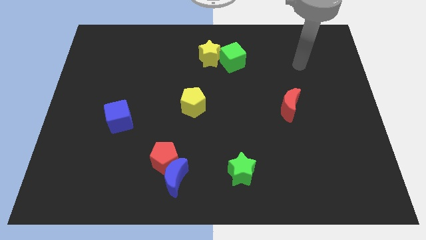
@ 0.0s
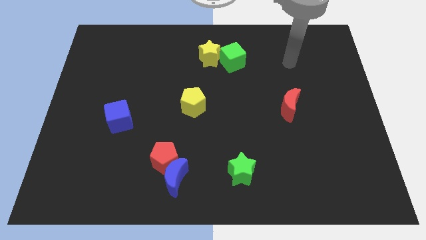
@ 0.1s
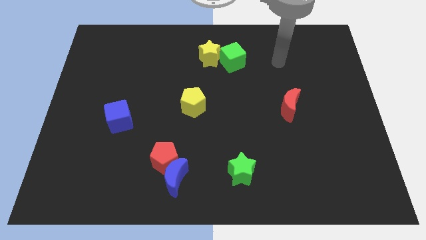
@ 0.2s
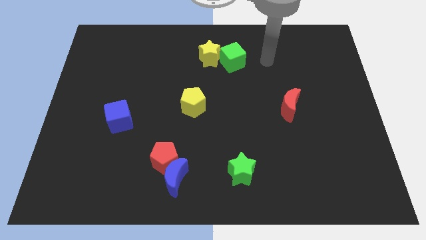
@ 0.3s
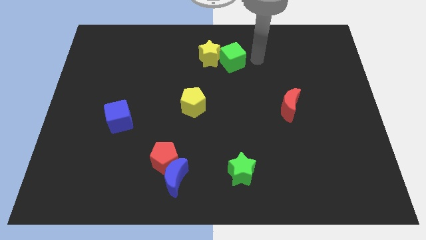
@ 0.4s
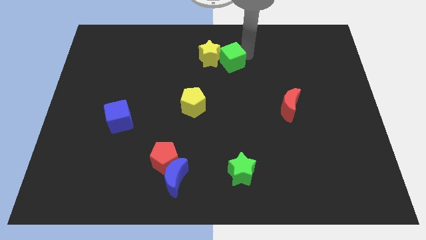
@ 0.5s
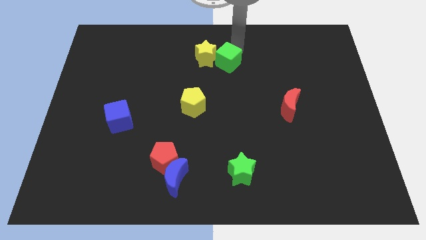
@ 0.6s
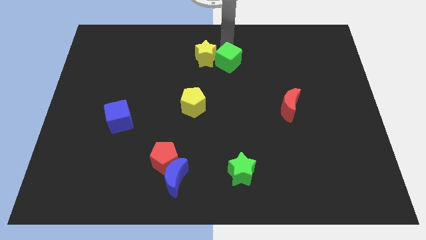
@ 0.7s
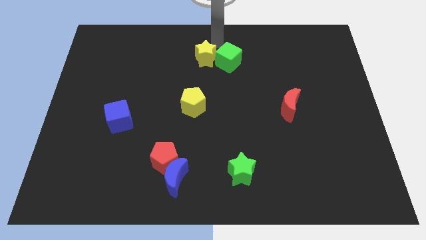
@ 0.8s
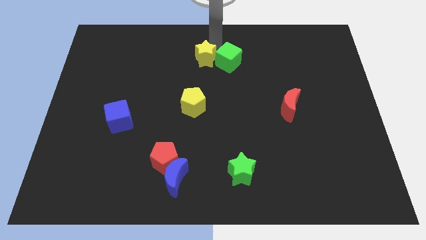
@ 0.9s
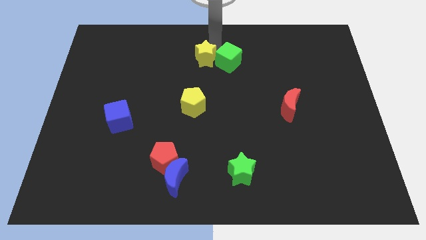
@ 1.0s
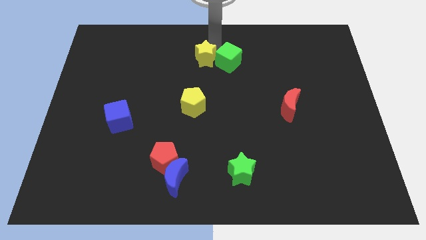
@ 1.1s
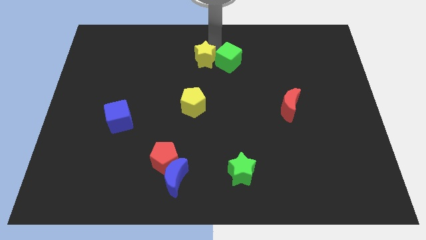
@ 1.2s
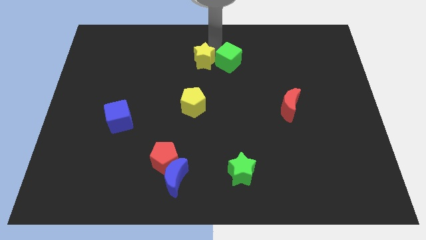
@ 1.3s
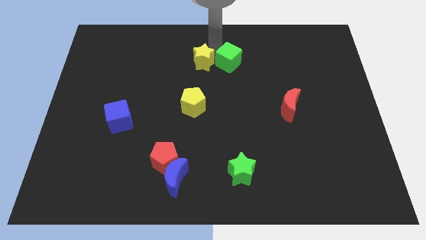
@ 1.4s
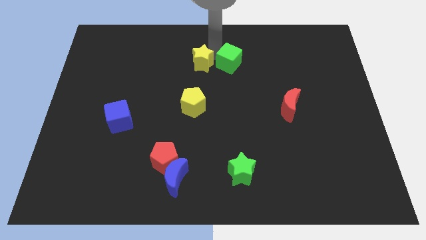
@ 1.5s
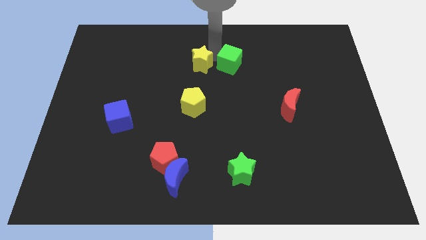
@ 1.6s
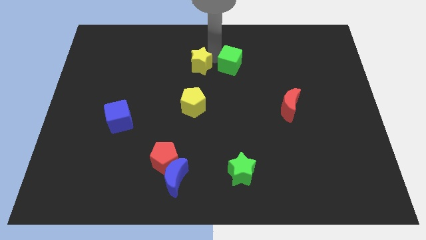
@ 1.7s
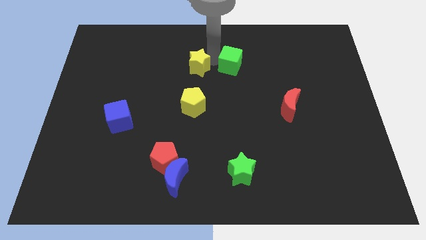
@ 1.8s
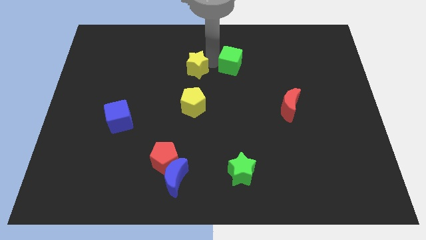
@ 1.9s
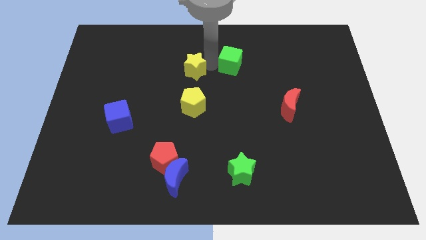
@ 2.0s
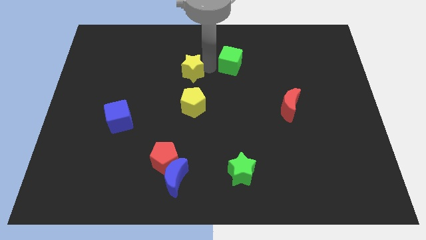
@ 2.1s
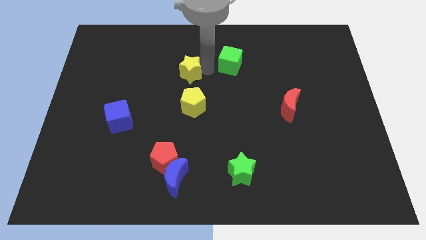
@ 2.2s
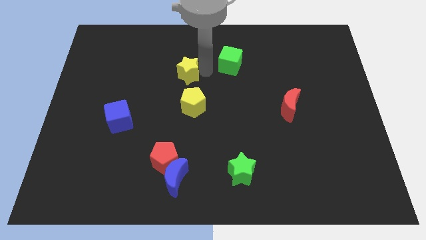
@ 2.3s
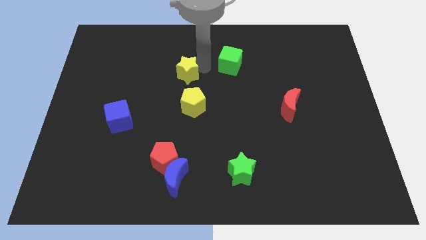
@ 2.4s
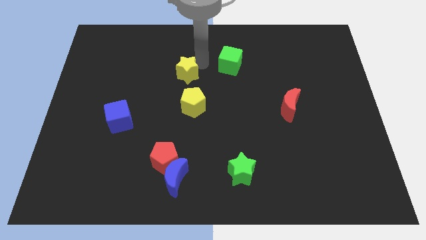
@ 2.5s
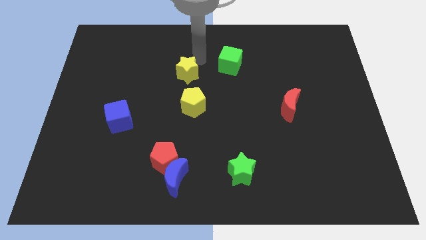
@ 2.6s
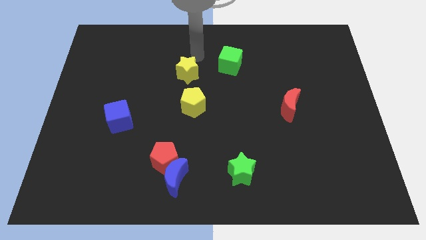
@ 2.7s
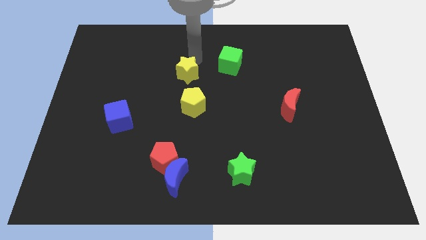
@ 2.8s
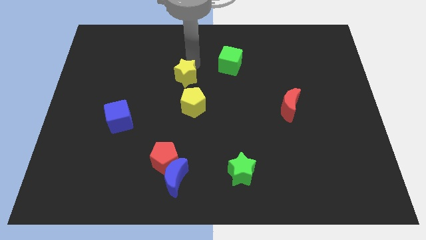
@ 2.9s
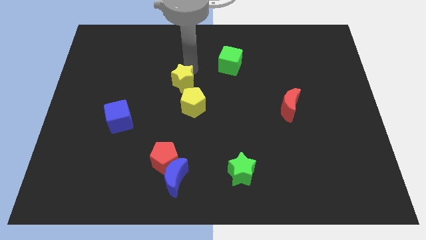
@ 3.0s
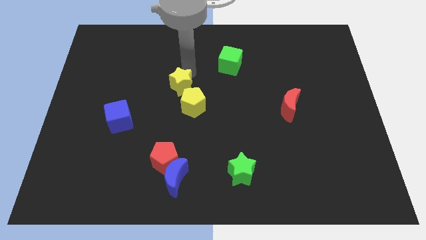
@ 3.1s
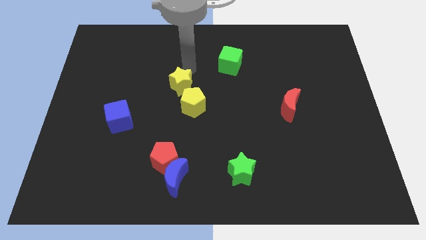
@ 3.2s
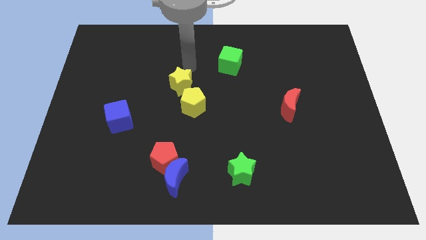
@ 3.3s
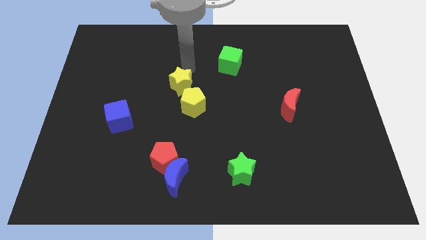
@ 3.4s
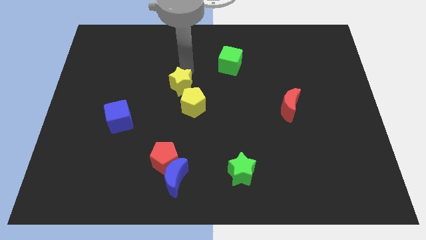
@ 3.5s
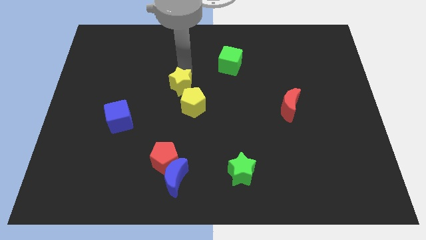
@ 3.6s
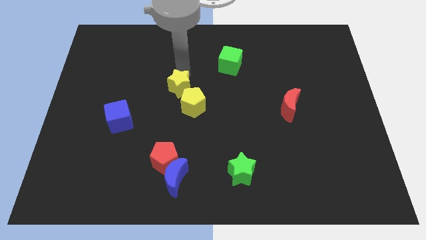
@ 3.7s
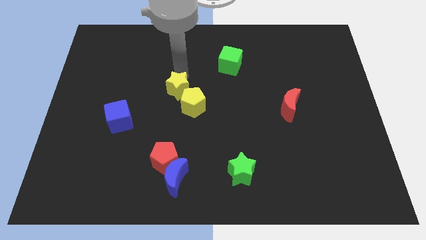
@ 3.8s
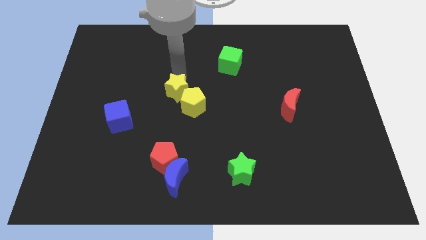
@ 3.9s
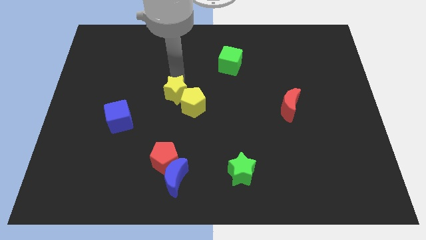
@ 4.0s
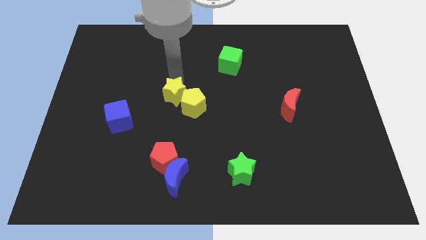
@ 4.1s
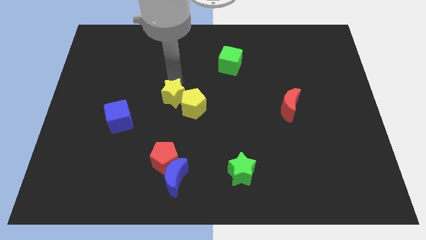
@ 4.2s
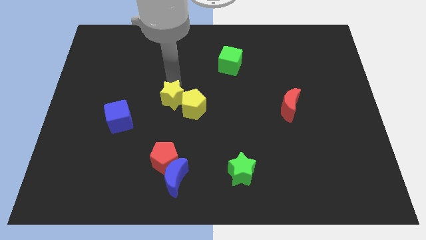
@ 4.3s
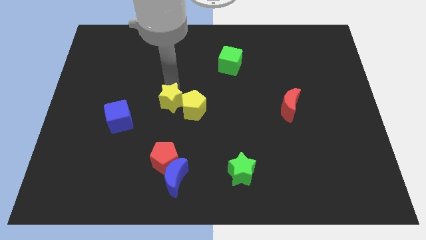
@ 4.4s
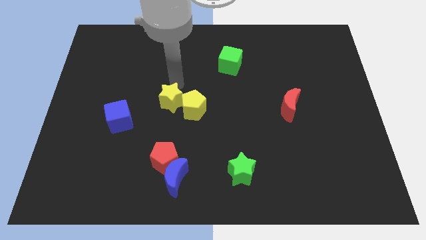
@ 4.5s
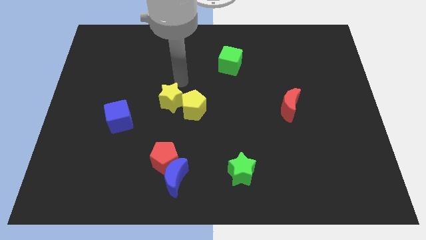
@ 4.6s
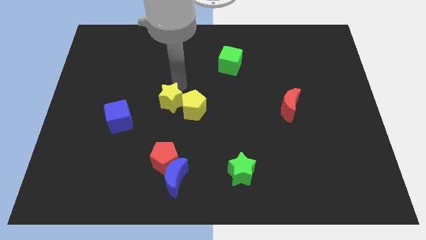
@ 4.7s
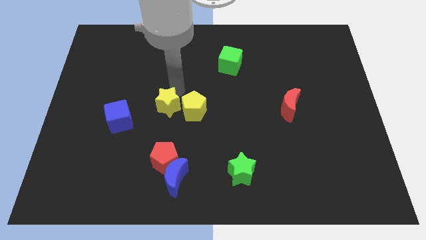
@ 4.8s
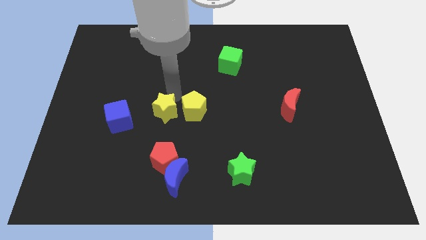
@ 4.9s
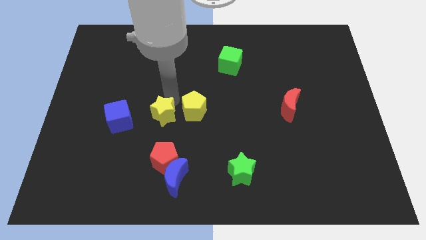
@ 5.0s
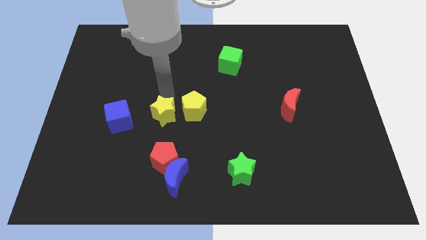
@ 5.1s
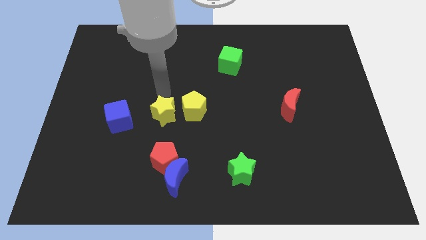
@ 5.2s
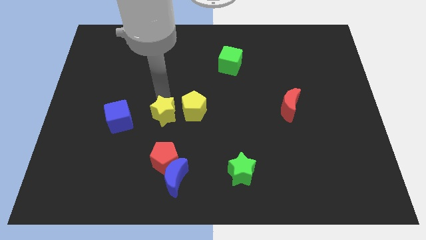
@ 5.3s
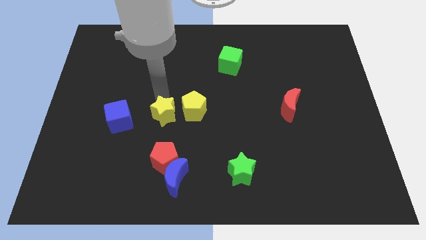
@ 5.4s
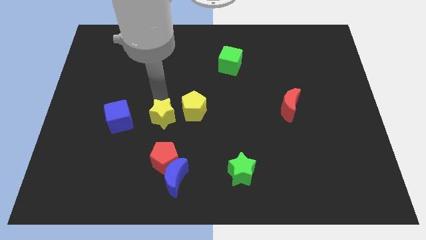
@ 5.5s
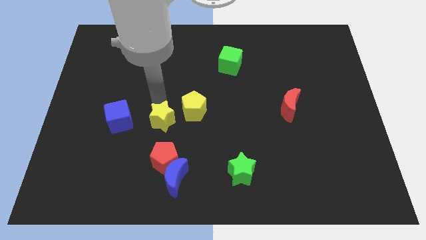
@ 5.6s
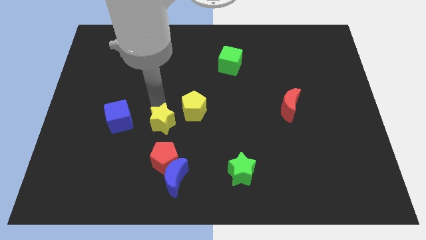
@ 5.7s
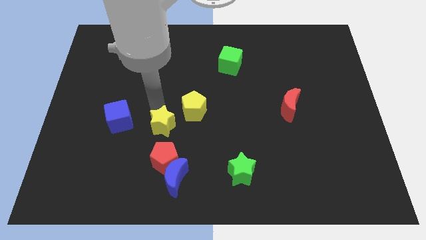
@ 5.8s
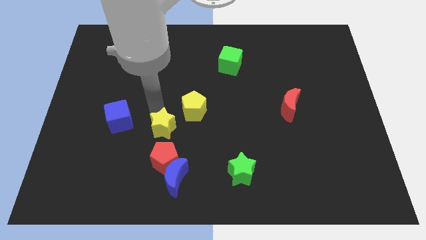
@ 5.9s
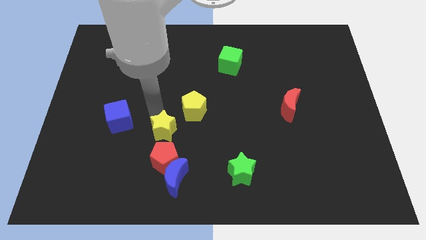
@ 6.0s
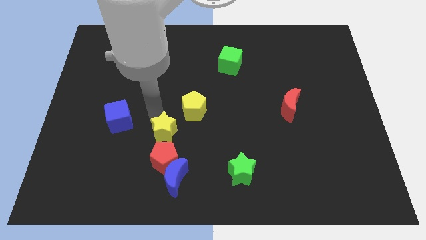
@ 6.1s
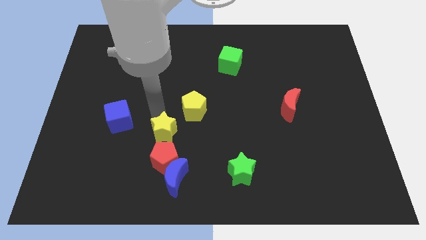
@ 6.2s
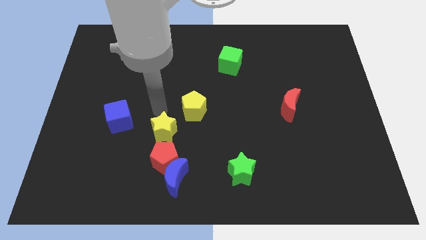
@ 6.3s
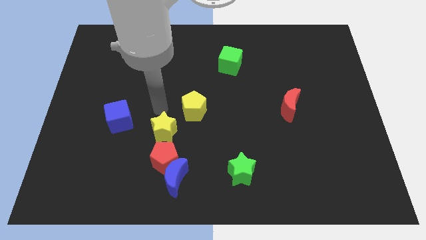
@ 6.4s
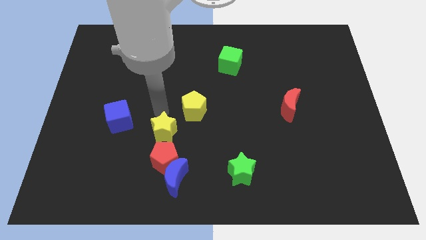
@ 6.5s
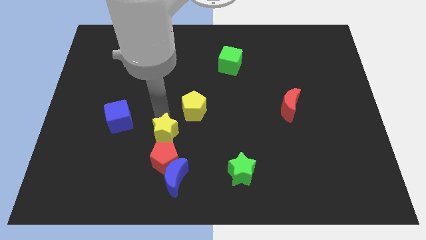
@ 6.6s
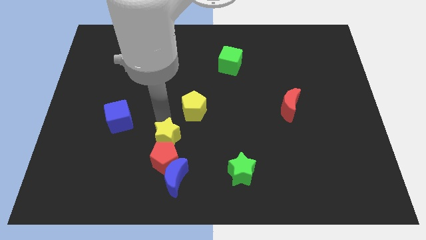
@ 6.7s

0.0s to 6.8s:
slide the yellow star to the red pentagon
